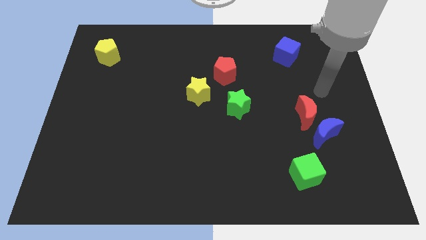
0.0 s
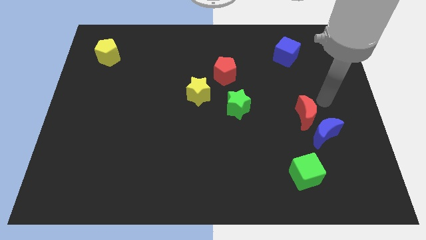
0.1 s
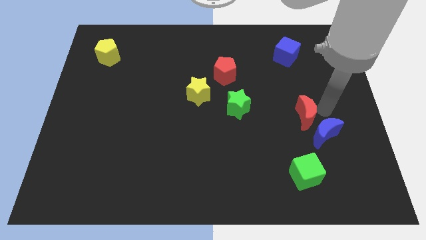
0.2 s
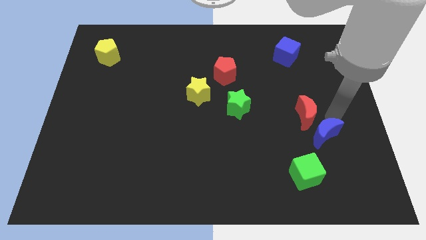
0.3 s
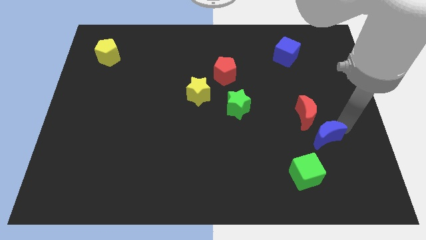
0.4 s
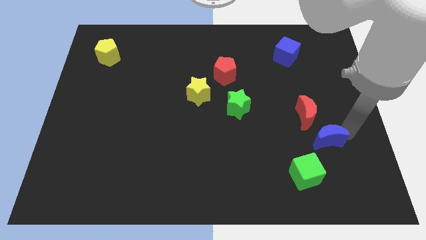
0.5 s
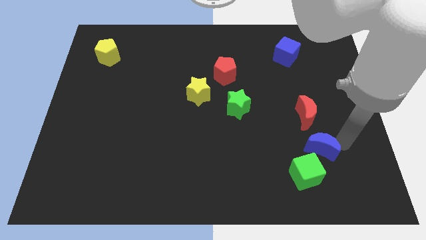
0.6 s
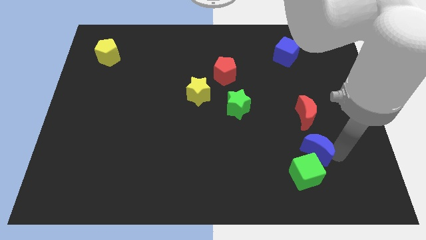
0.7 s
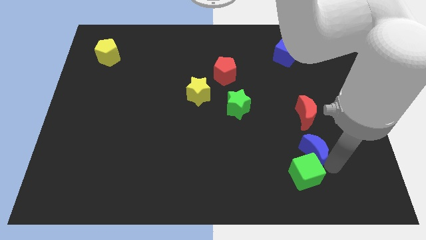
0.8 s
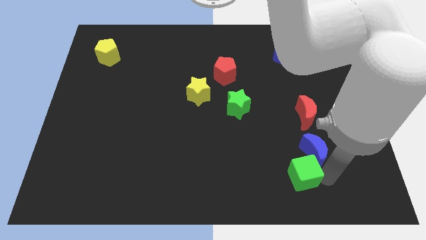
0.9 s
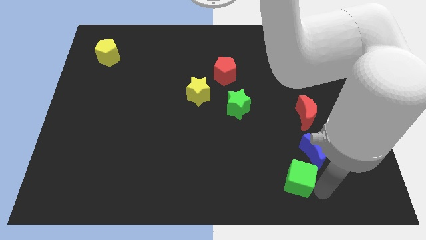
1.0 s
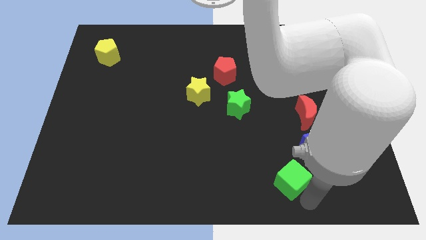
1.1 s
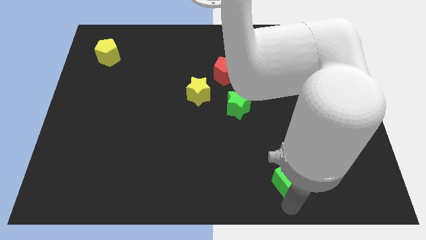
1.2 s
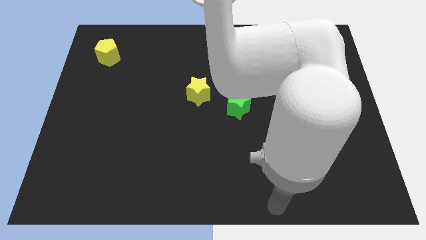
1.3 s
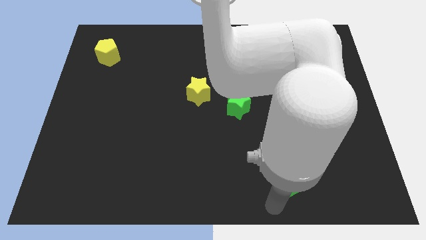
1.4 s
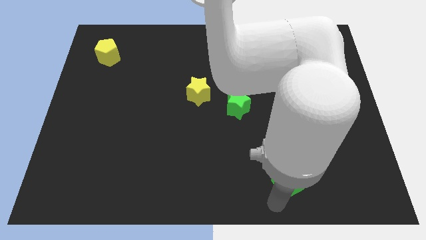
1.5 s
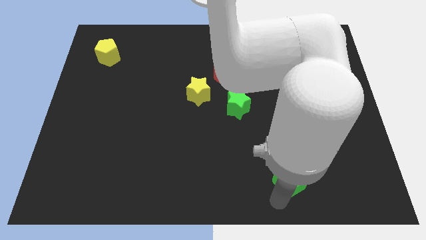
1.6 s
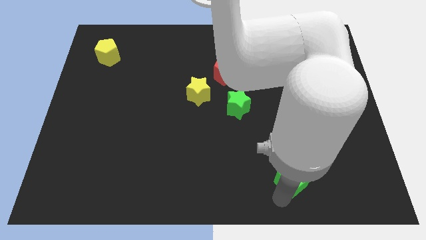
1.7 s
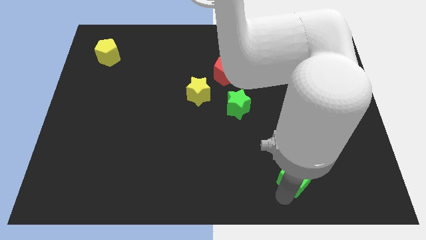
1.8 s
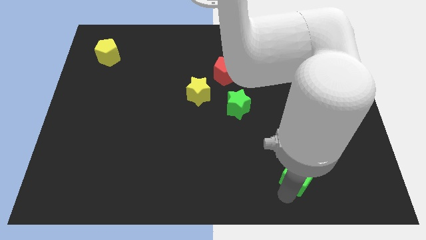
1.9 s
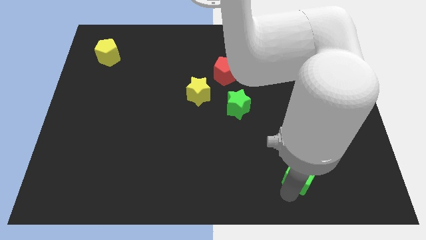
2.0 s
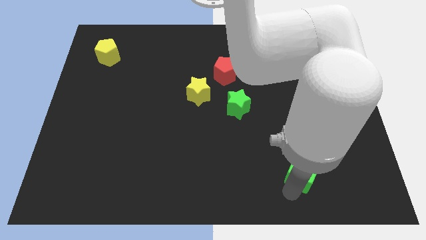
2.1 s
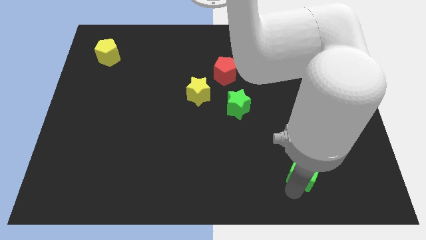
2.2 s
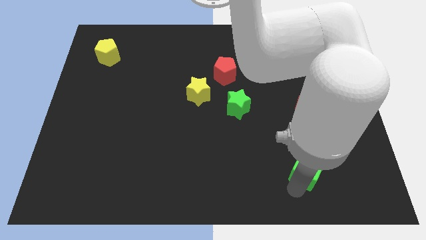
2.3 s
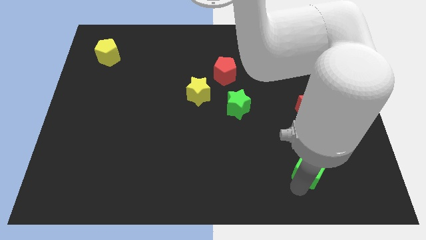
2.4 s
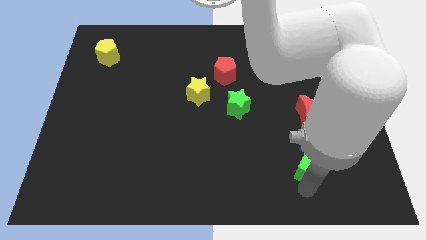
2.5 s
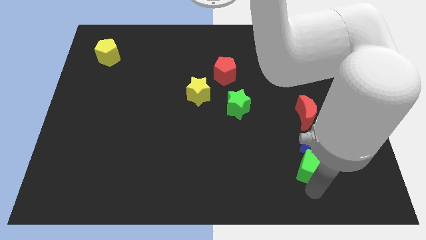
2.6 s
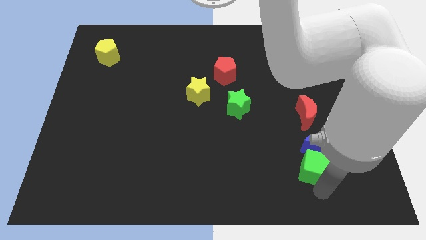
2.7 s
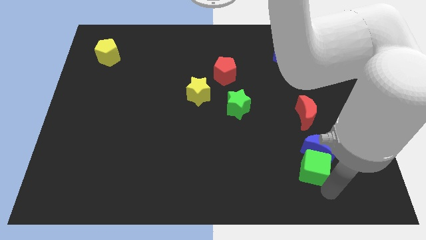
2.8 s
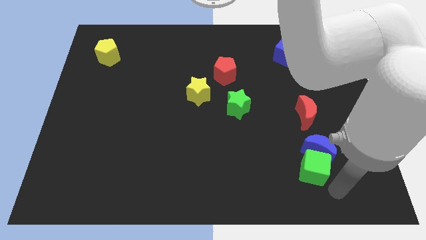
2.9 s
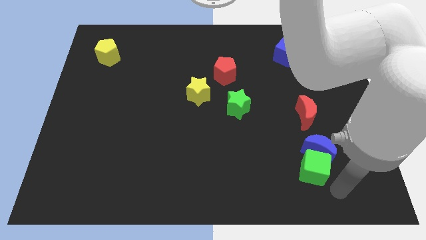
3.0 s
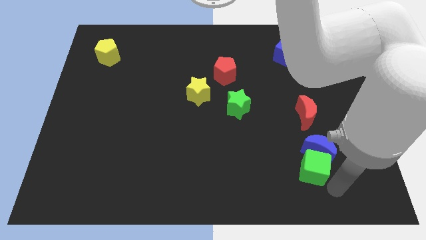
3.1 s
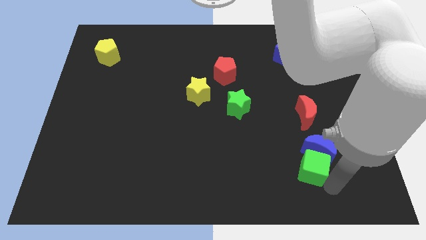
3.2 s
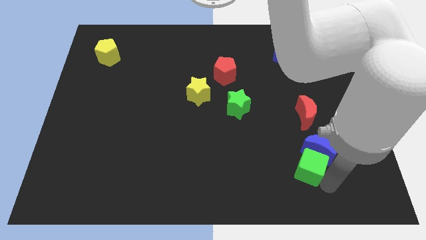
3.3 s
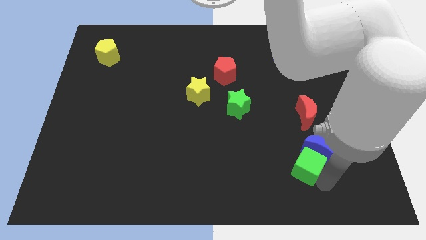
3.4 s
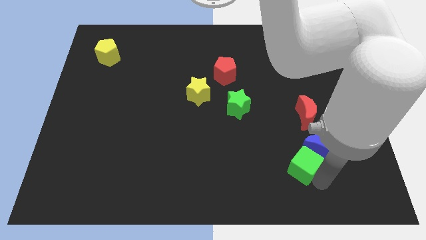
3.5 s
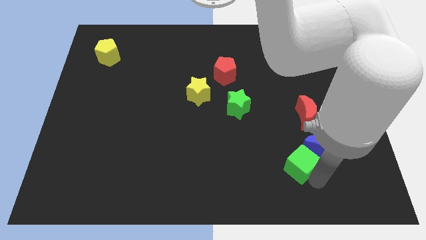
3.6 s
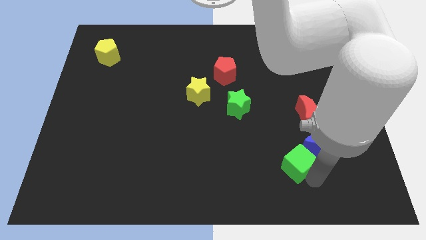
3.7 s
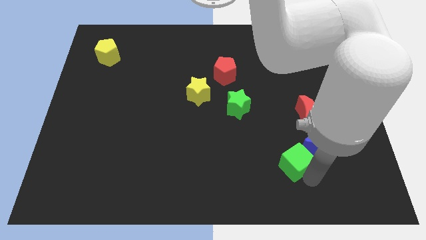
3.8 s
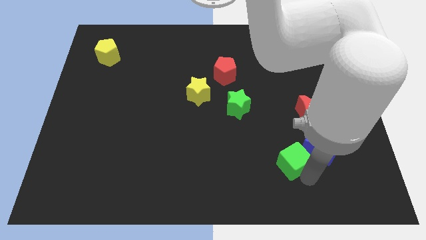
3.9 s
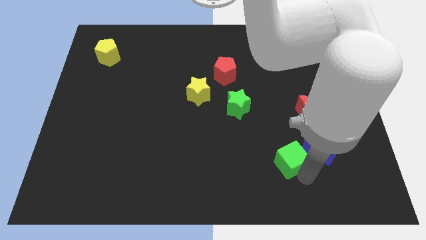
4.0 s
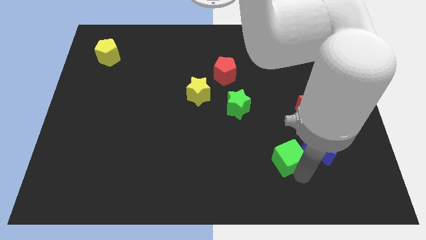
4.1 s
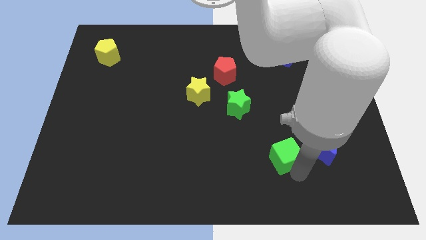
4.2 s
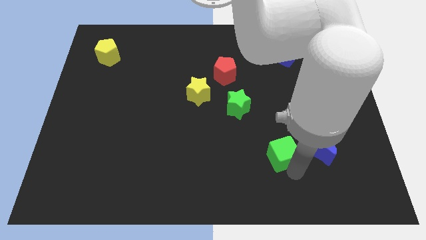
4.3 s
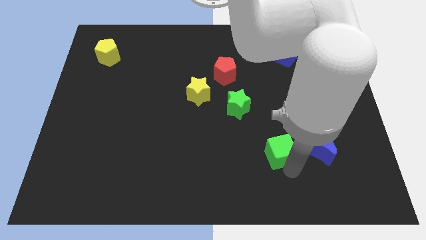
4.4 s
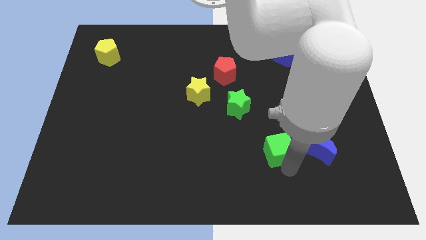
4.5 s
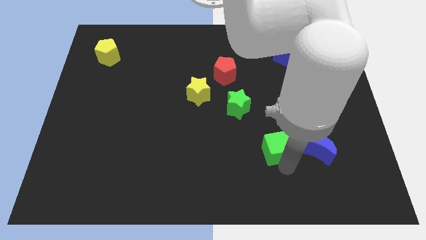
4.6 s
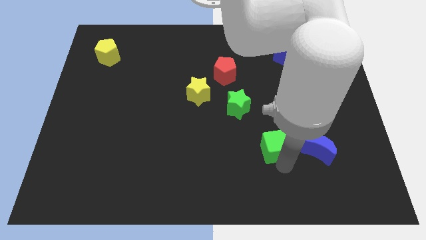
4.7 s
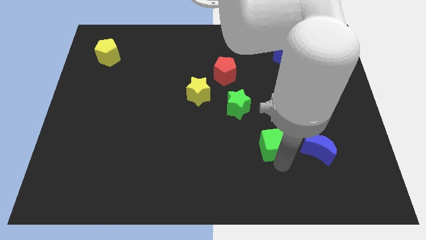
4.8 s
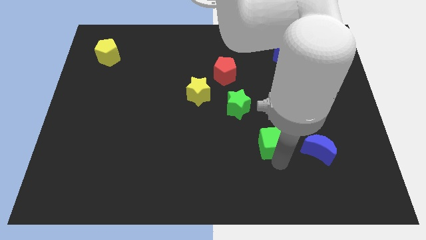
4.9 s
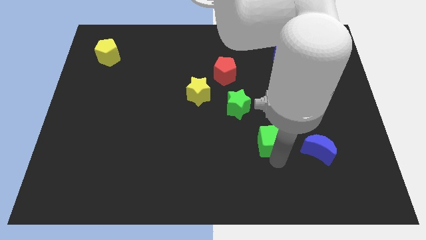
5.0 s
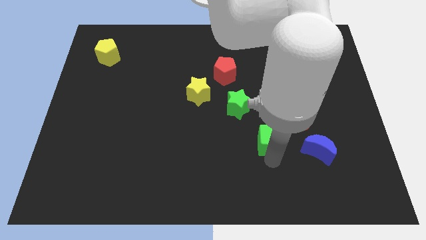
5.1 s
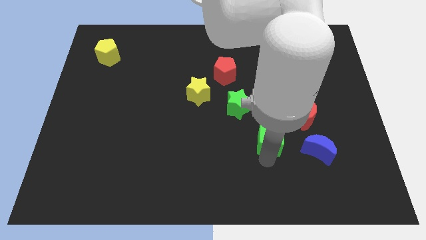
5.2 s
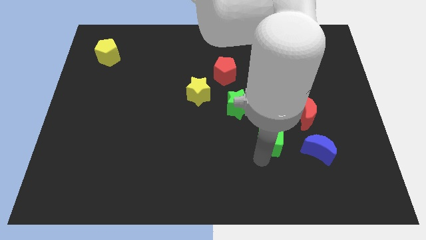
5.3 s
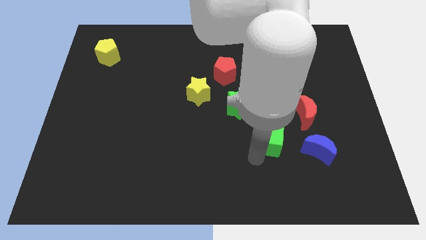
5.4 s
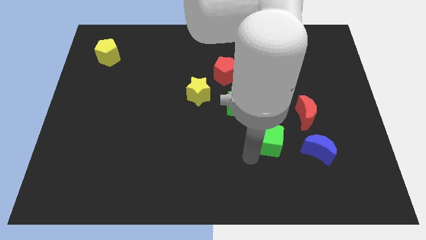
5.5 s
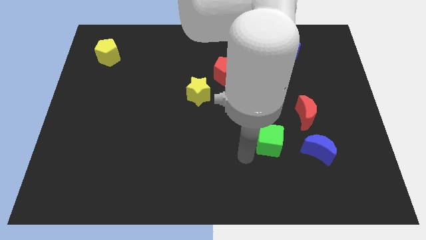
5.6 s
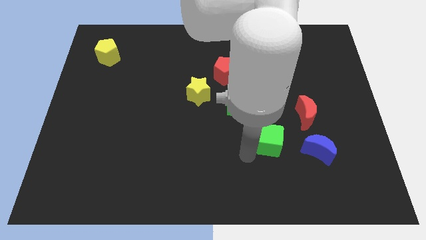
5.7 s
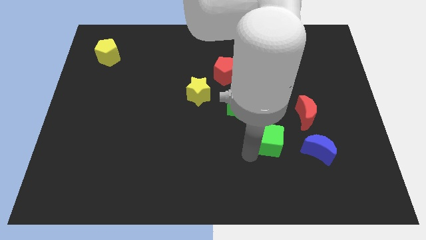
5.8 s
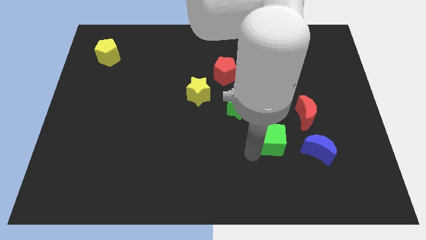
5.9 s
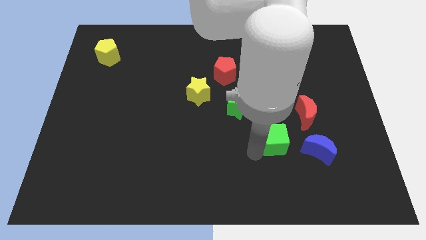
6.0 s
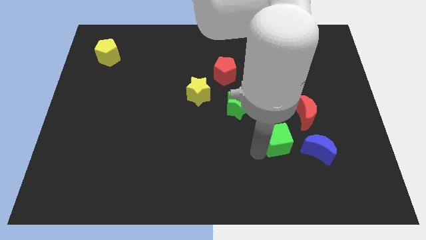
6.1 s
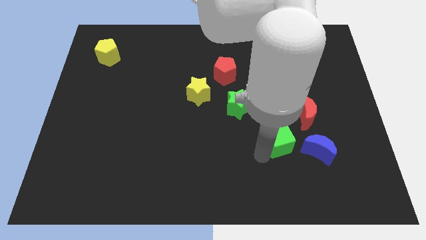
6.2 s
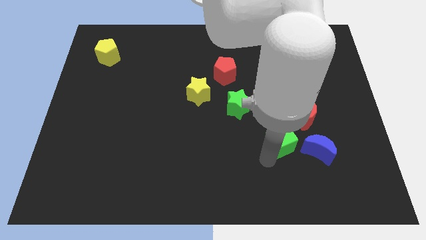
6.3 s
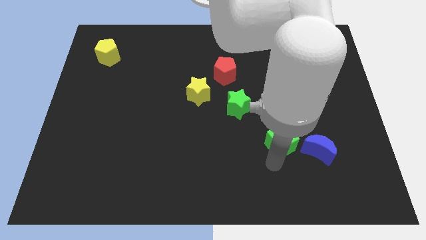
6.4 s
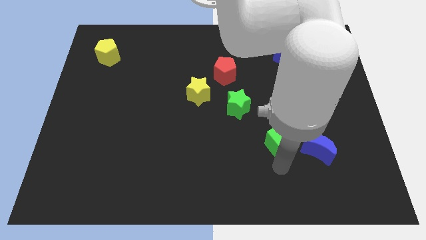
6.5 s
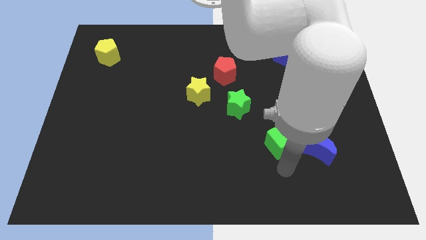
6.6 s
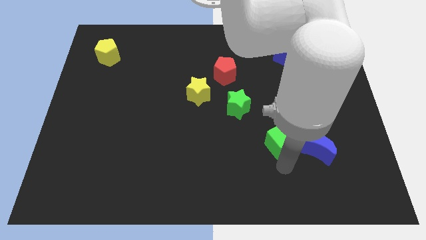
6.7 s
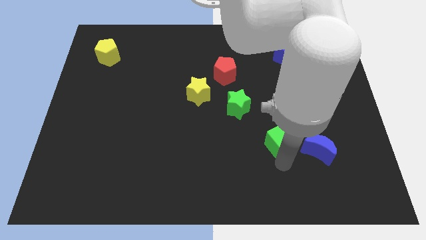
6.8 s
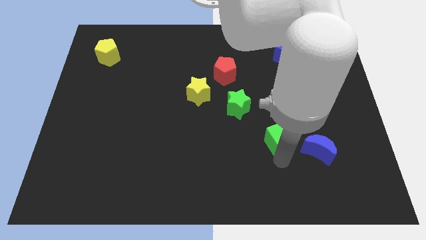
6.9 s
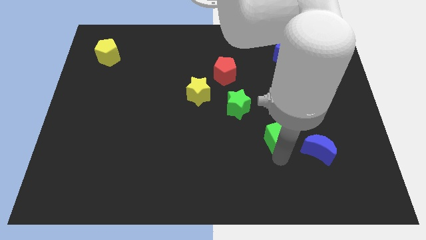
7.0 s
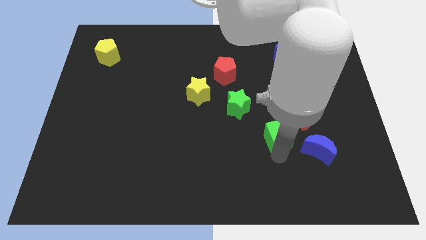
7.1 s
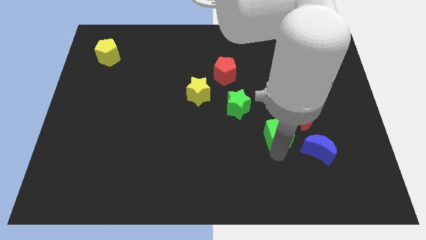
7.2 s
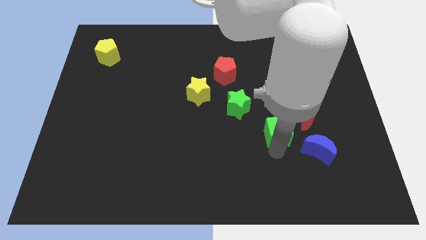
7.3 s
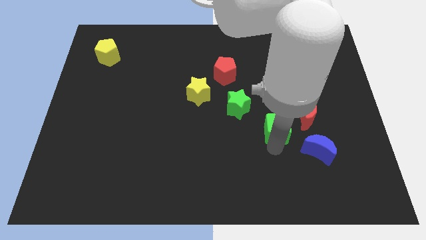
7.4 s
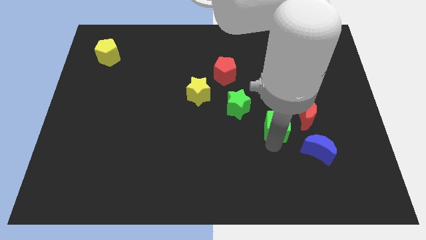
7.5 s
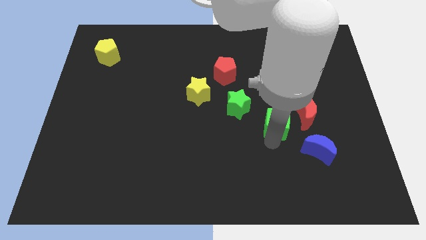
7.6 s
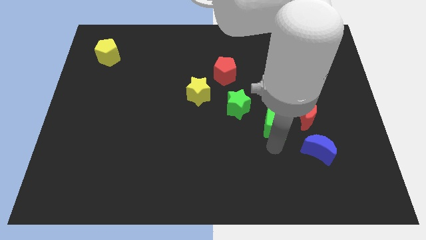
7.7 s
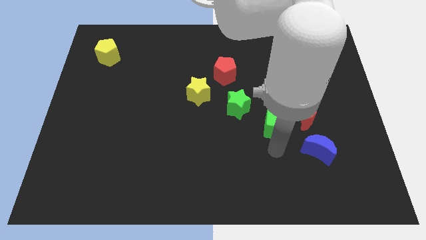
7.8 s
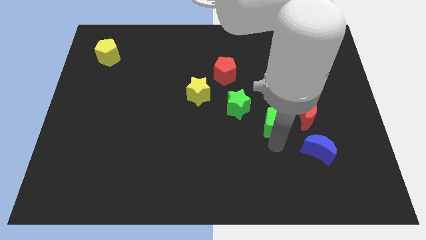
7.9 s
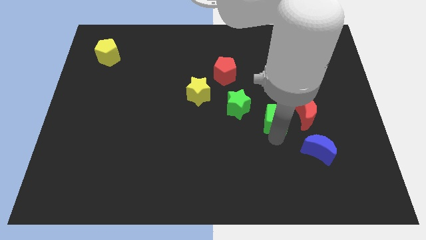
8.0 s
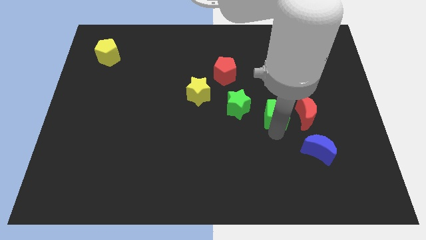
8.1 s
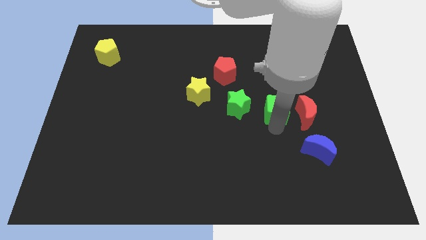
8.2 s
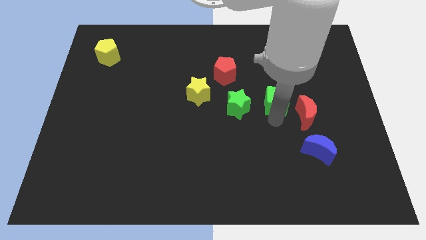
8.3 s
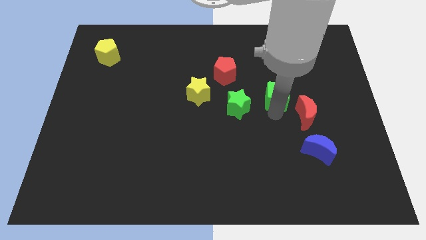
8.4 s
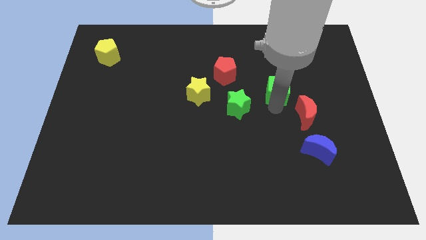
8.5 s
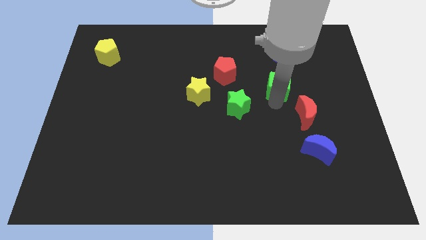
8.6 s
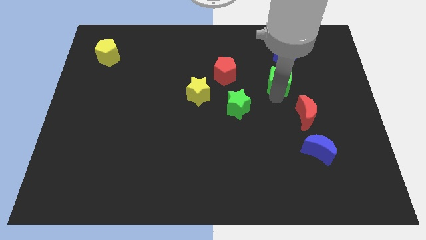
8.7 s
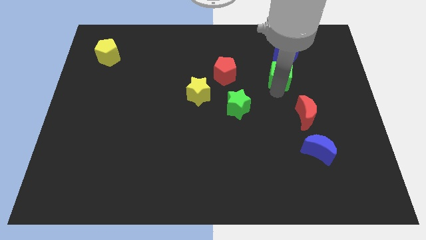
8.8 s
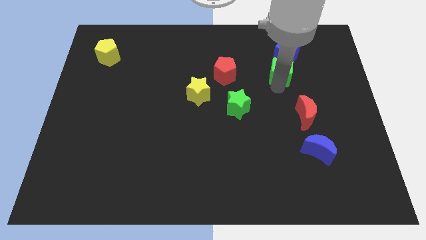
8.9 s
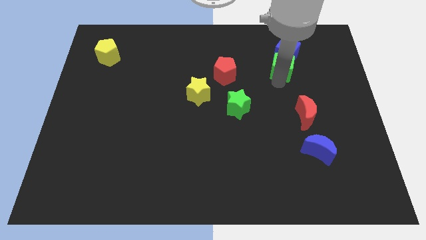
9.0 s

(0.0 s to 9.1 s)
move the green cube towards the blue cube
